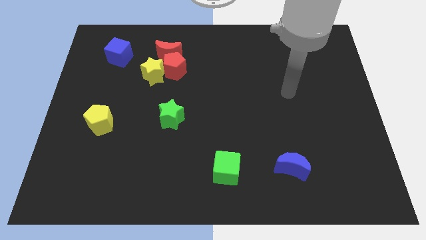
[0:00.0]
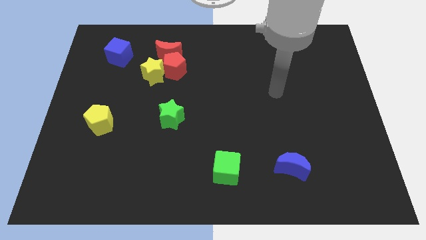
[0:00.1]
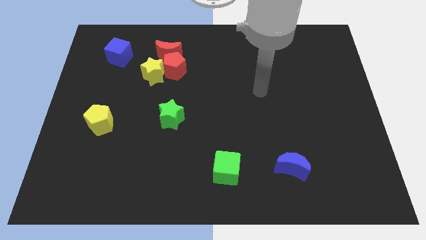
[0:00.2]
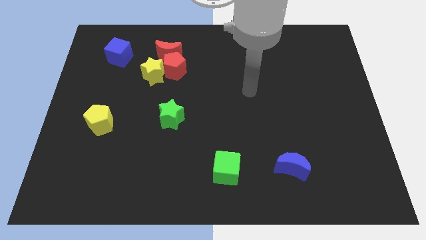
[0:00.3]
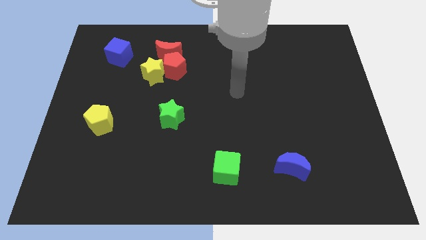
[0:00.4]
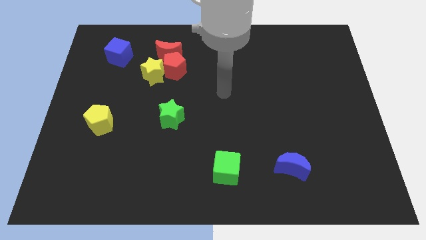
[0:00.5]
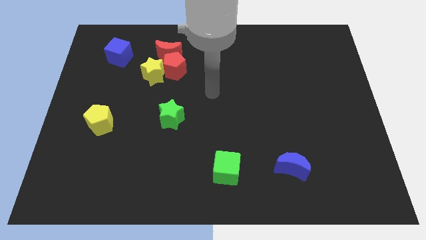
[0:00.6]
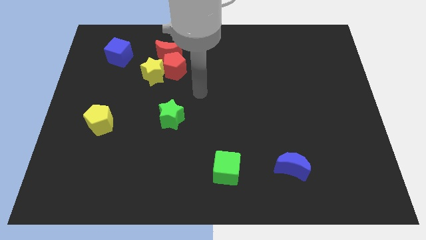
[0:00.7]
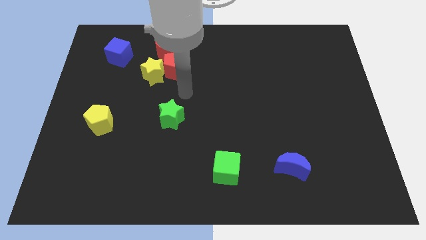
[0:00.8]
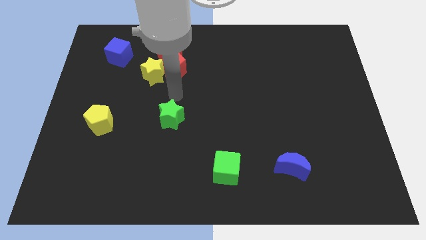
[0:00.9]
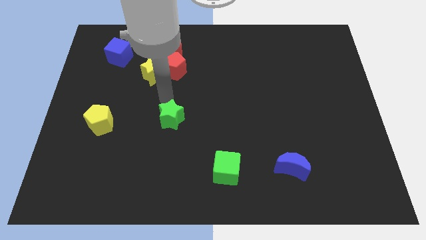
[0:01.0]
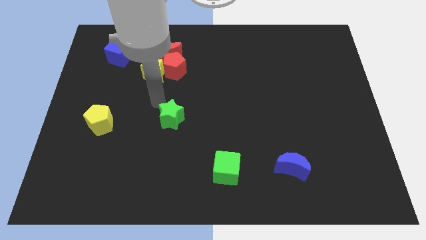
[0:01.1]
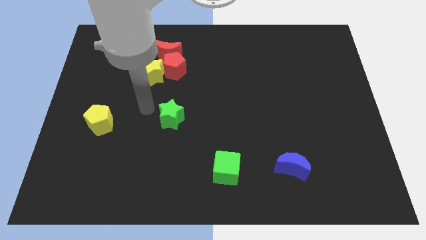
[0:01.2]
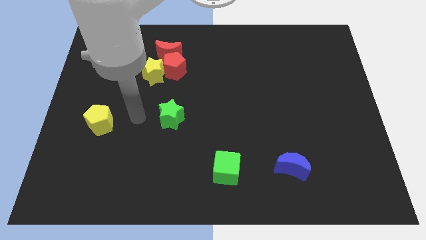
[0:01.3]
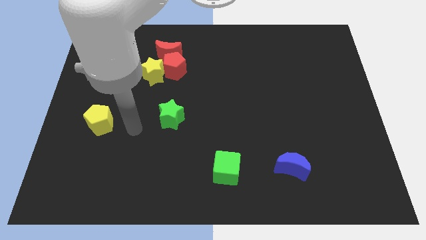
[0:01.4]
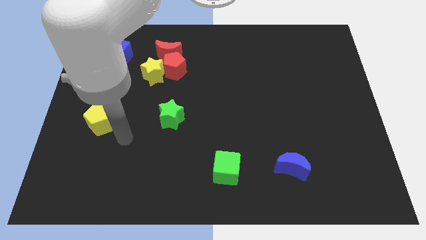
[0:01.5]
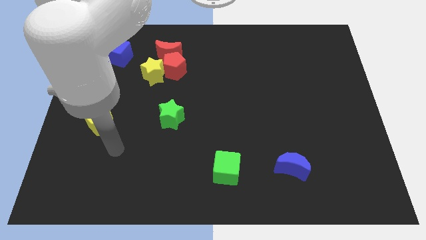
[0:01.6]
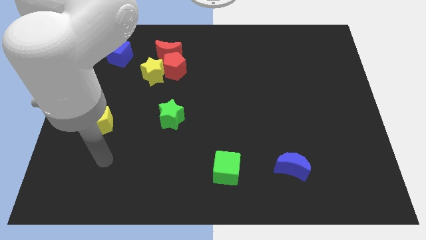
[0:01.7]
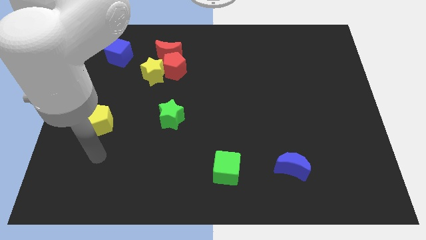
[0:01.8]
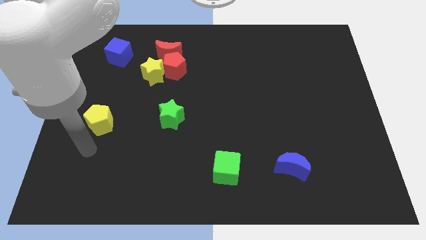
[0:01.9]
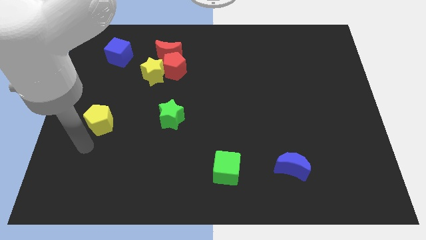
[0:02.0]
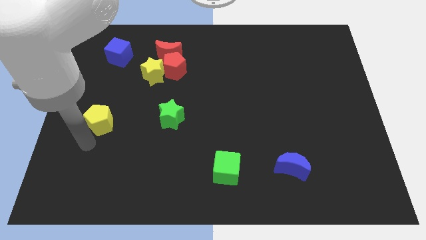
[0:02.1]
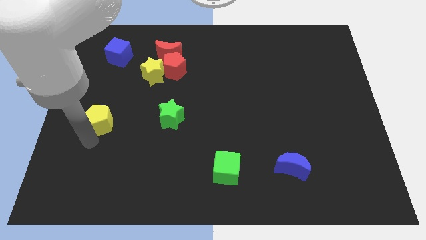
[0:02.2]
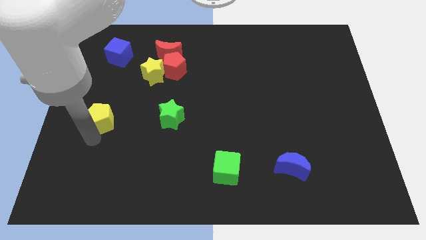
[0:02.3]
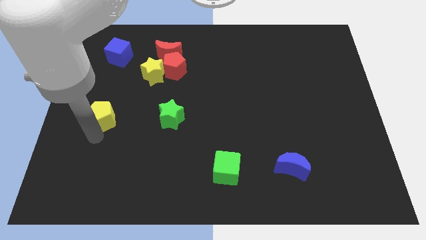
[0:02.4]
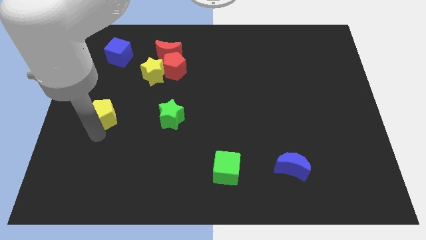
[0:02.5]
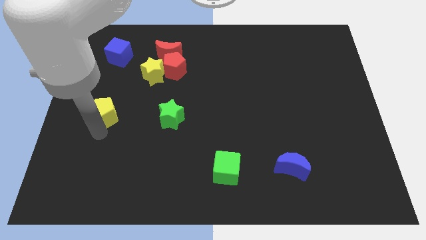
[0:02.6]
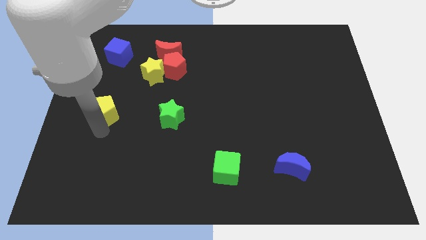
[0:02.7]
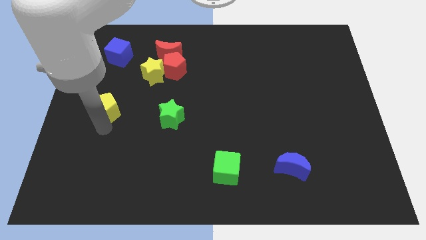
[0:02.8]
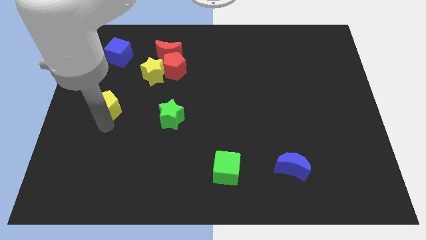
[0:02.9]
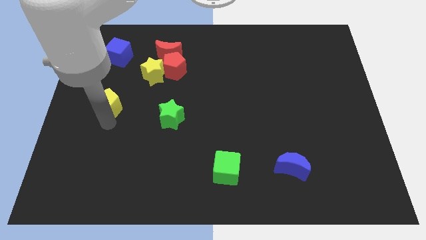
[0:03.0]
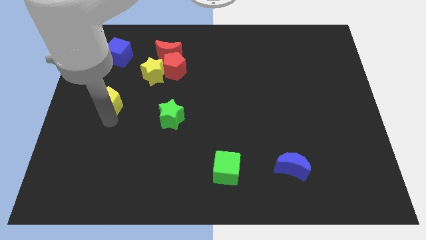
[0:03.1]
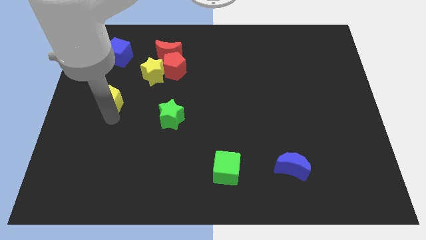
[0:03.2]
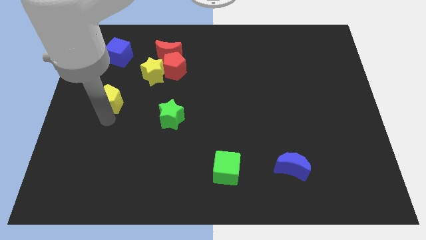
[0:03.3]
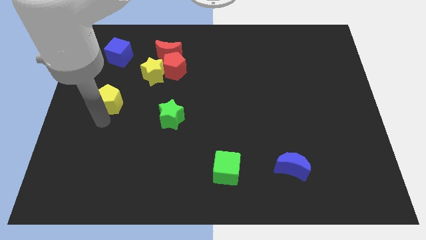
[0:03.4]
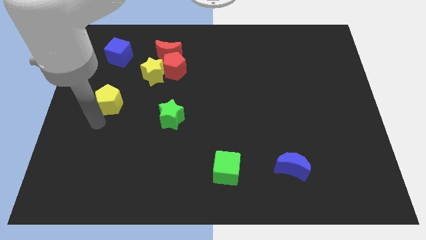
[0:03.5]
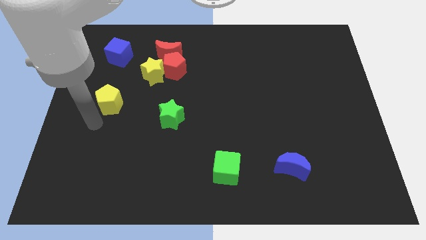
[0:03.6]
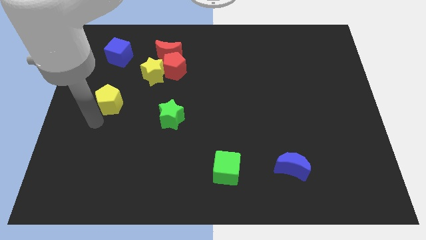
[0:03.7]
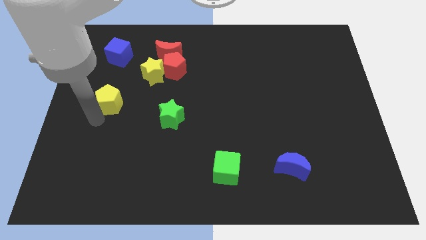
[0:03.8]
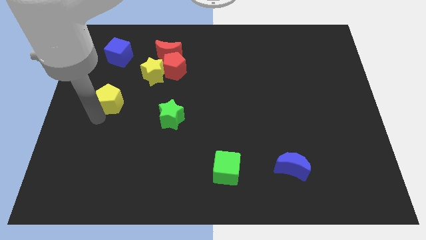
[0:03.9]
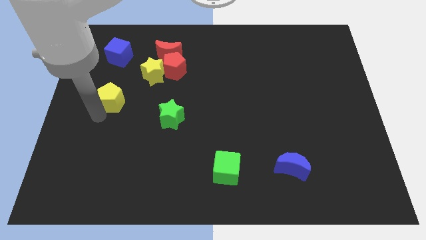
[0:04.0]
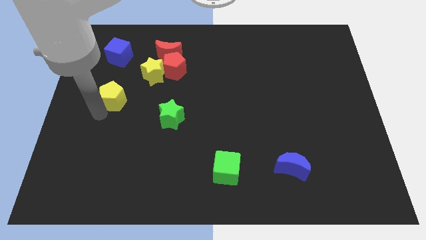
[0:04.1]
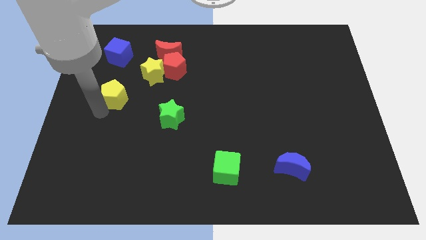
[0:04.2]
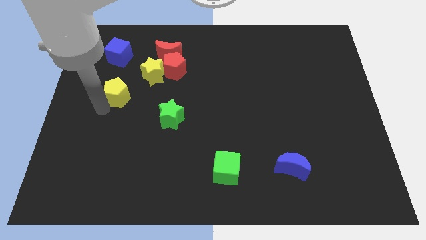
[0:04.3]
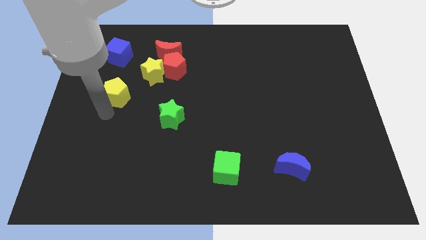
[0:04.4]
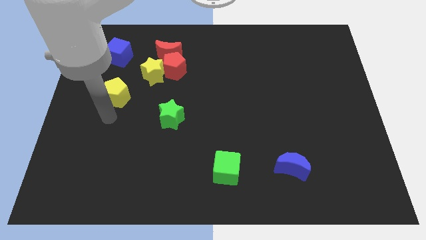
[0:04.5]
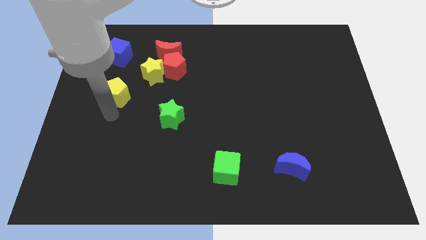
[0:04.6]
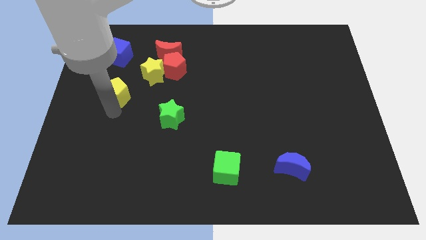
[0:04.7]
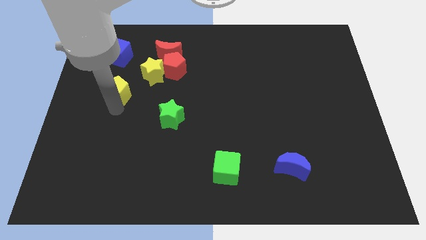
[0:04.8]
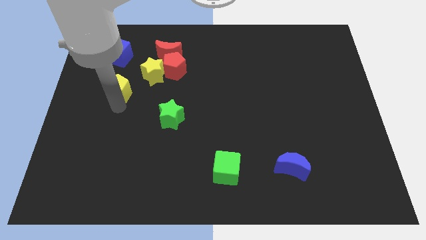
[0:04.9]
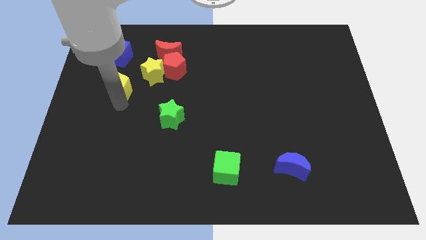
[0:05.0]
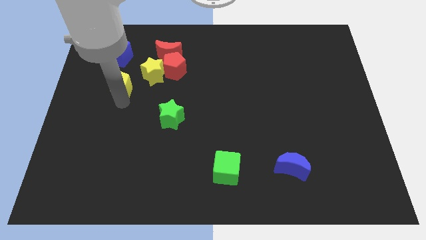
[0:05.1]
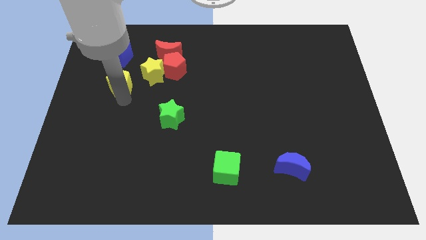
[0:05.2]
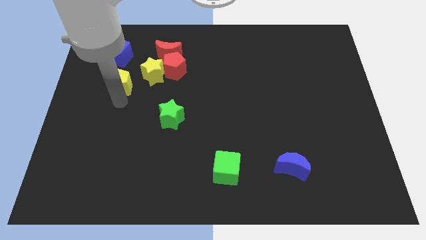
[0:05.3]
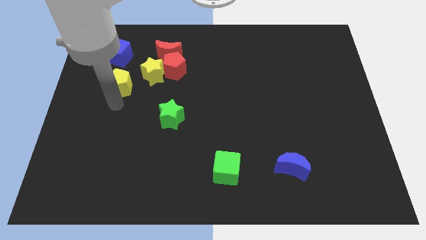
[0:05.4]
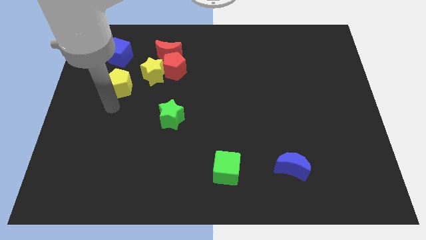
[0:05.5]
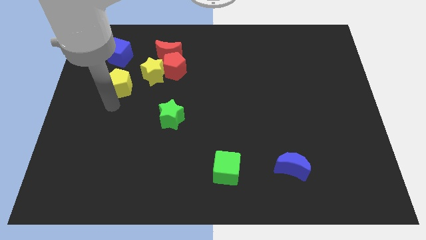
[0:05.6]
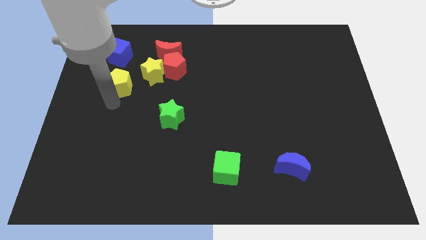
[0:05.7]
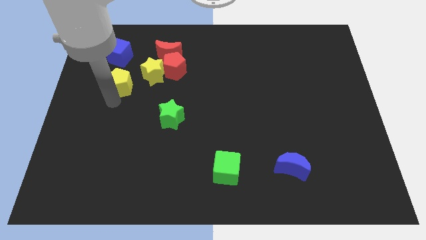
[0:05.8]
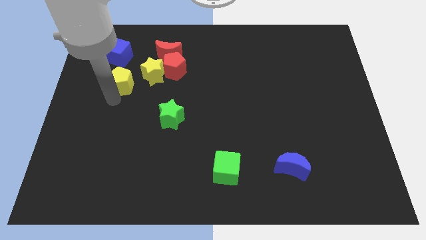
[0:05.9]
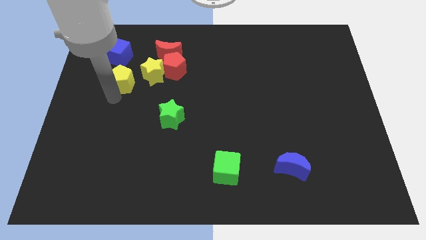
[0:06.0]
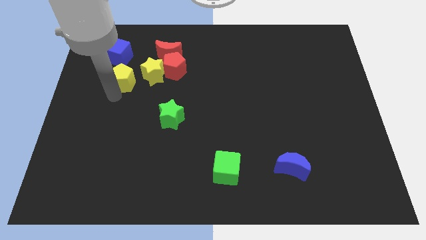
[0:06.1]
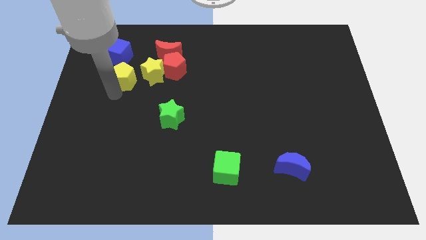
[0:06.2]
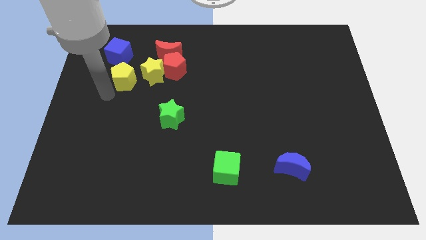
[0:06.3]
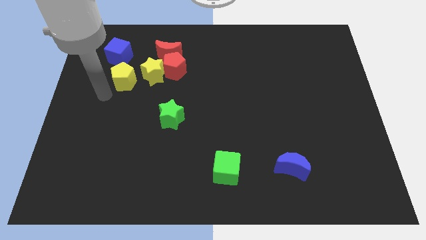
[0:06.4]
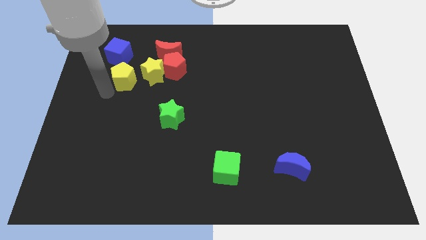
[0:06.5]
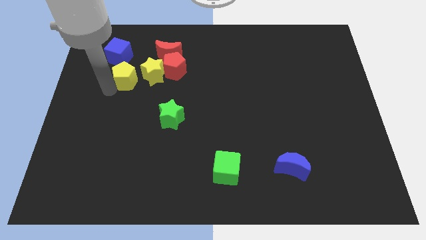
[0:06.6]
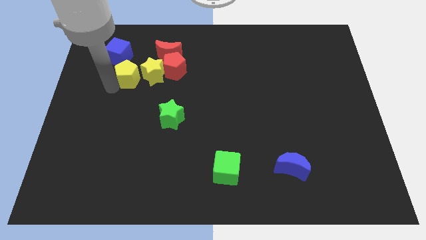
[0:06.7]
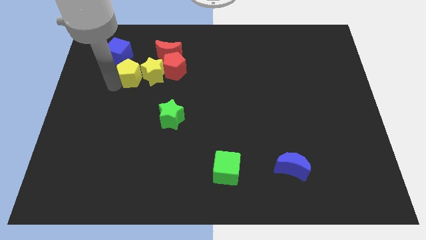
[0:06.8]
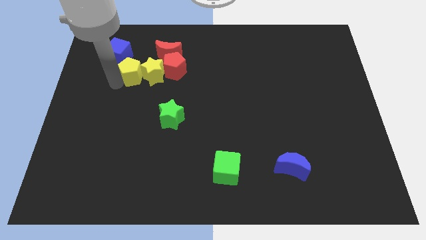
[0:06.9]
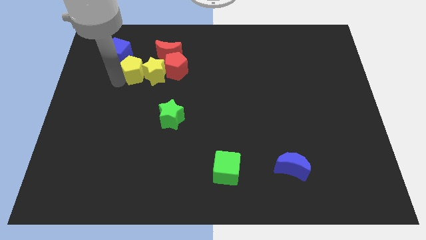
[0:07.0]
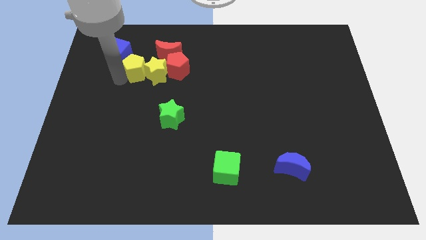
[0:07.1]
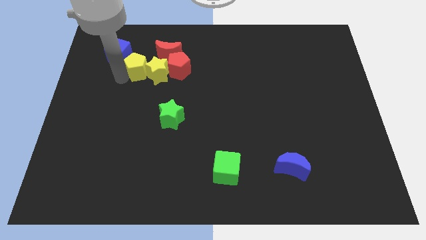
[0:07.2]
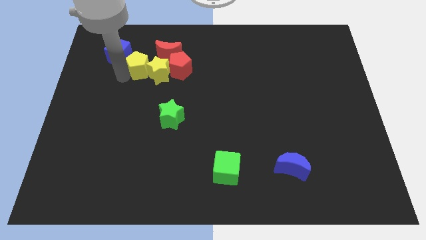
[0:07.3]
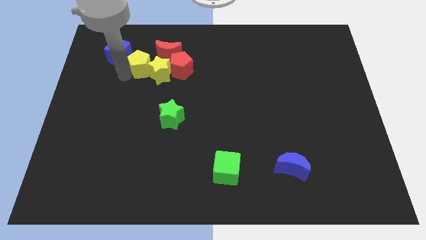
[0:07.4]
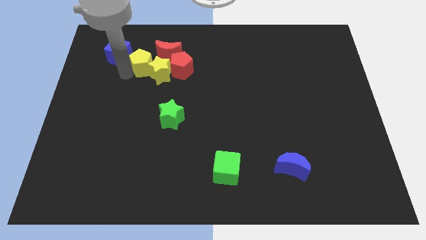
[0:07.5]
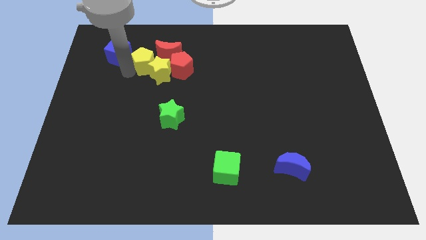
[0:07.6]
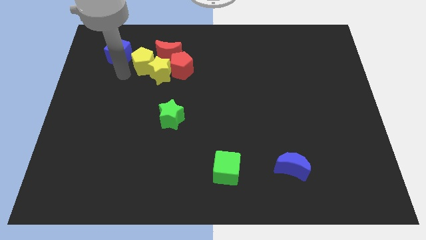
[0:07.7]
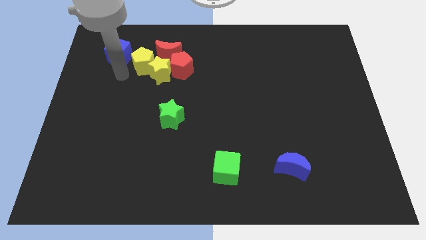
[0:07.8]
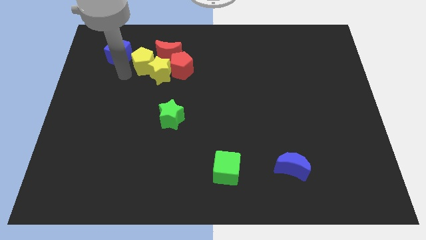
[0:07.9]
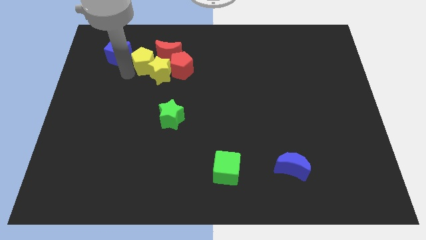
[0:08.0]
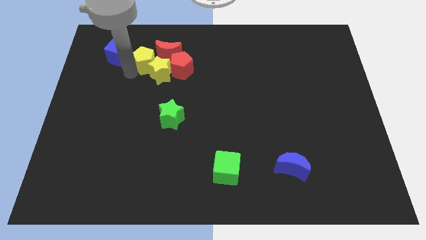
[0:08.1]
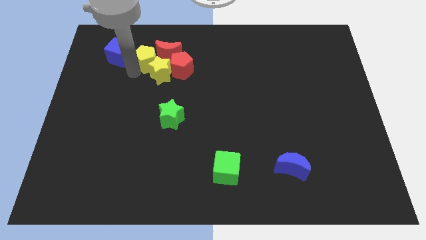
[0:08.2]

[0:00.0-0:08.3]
move the yellow pentagon to the red moon
